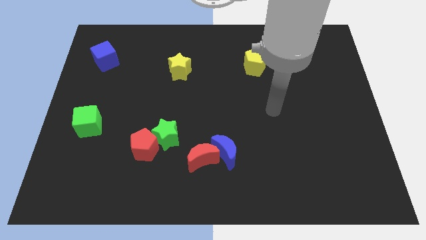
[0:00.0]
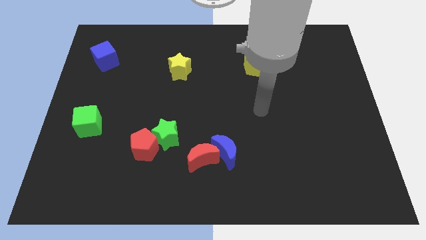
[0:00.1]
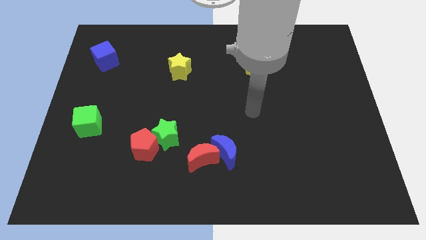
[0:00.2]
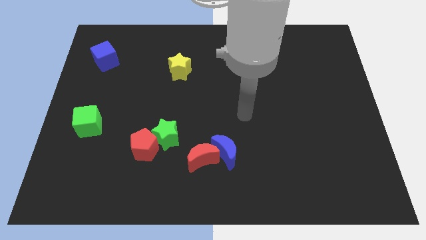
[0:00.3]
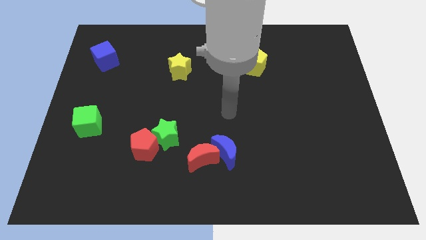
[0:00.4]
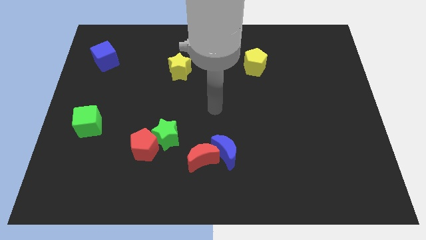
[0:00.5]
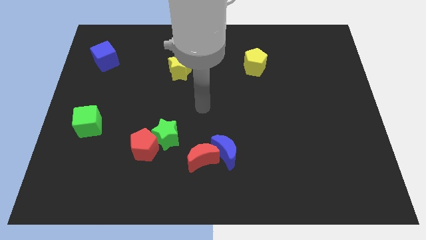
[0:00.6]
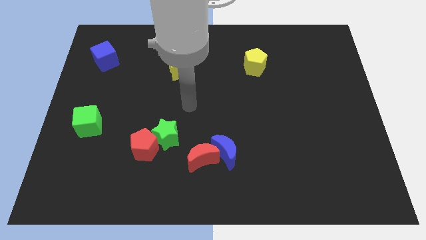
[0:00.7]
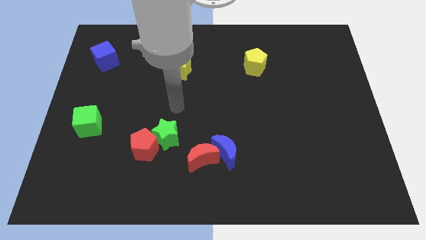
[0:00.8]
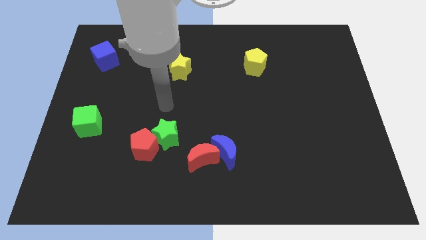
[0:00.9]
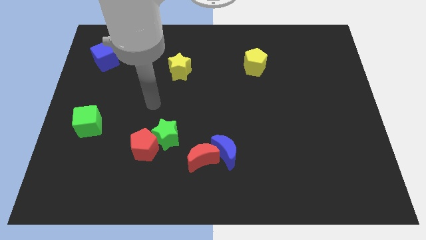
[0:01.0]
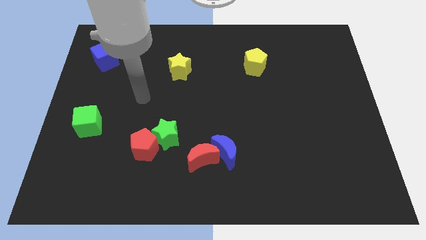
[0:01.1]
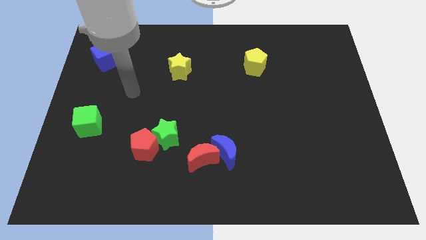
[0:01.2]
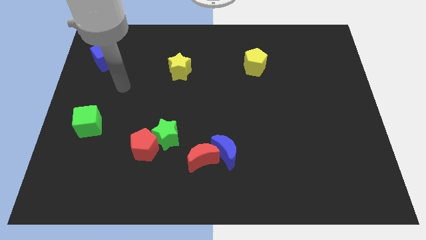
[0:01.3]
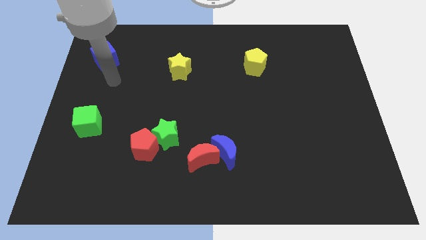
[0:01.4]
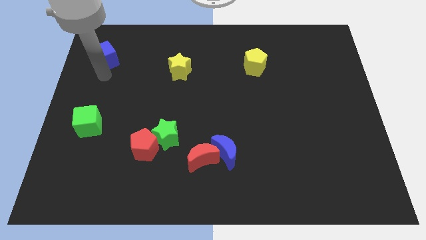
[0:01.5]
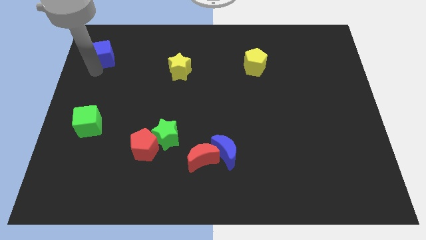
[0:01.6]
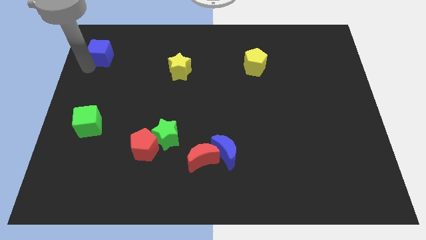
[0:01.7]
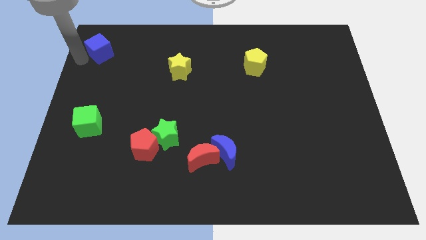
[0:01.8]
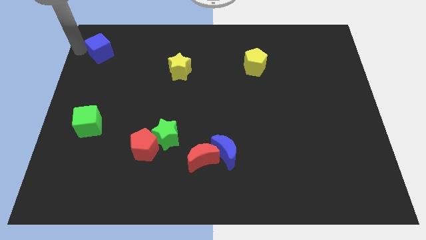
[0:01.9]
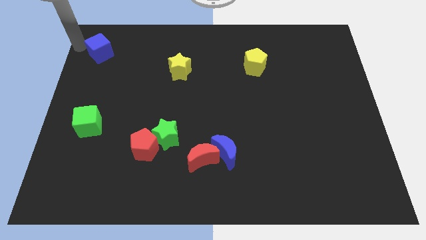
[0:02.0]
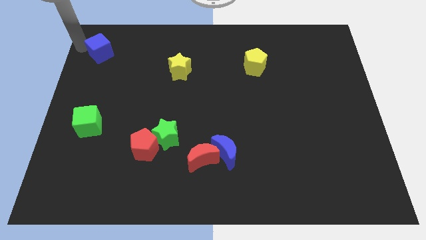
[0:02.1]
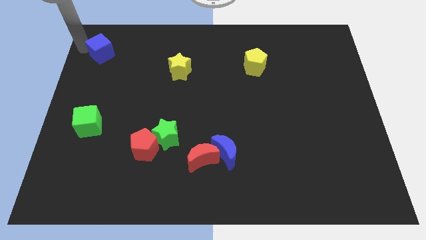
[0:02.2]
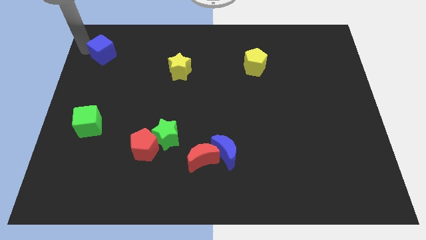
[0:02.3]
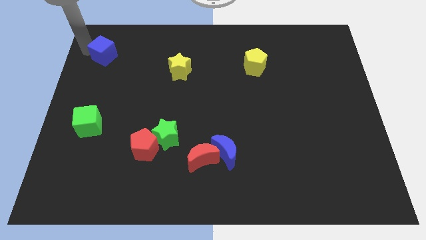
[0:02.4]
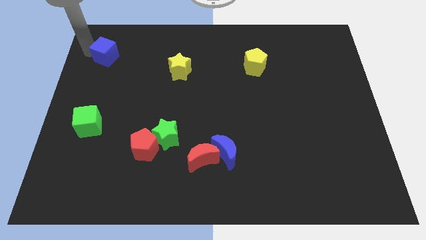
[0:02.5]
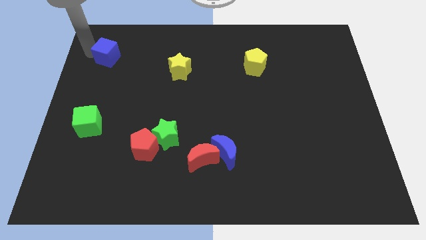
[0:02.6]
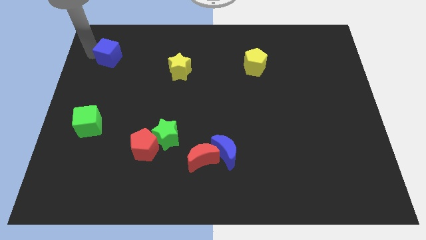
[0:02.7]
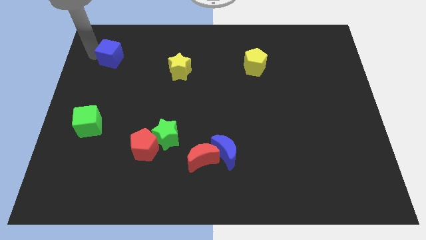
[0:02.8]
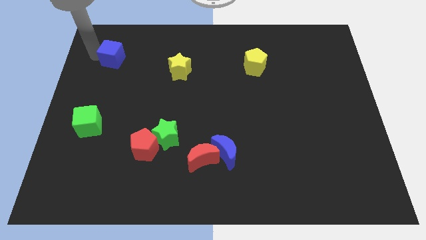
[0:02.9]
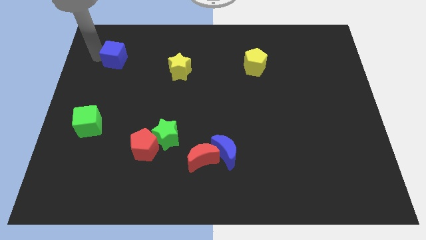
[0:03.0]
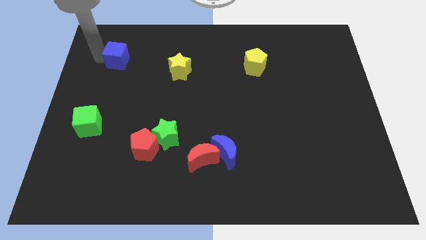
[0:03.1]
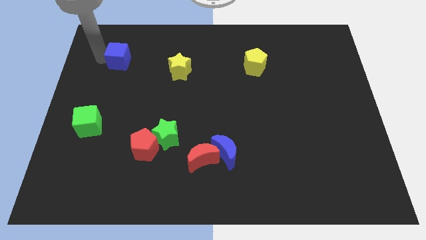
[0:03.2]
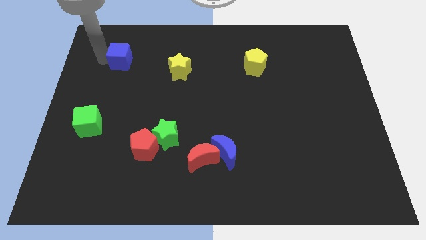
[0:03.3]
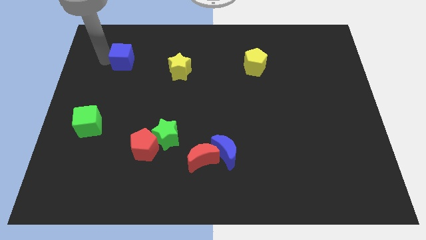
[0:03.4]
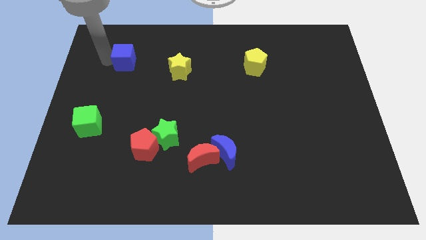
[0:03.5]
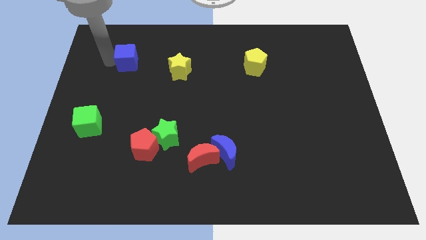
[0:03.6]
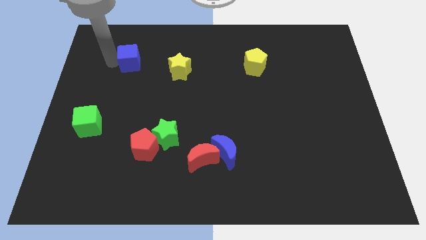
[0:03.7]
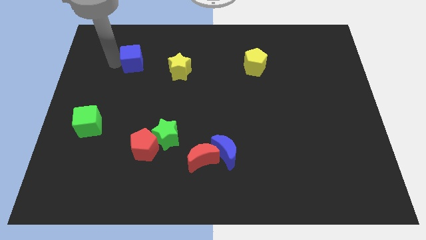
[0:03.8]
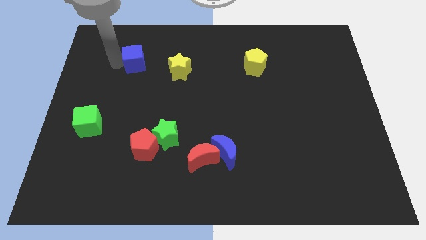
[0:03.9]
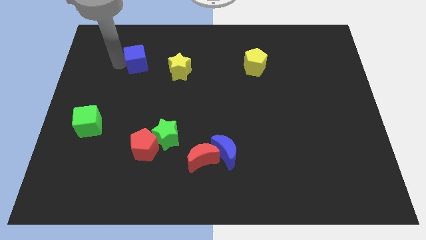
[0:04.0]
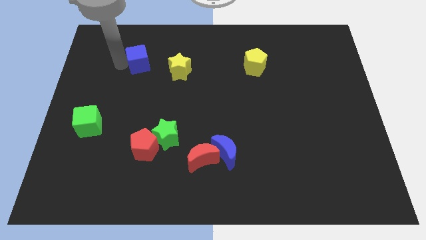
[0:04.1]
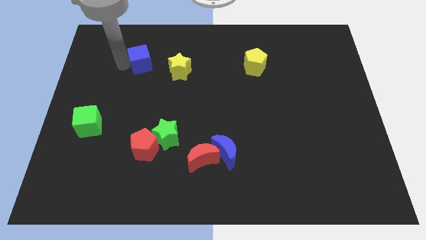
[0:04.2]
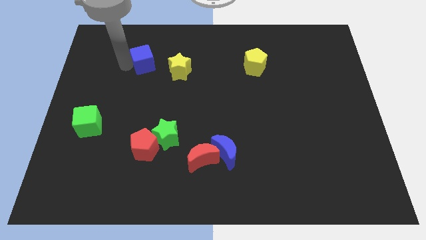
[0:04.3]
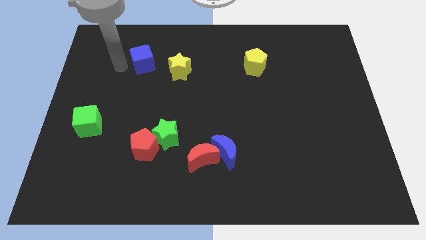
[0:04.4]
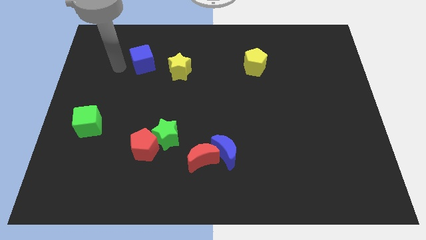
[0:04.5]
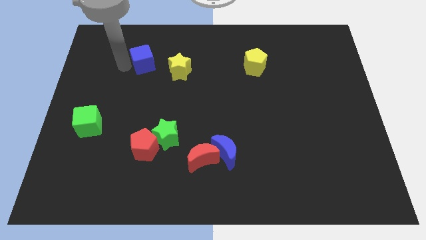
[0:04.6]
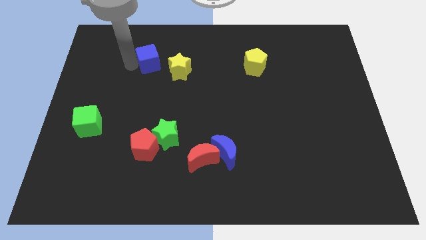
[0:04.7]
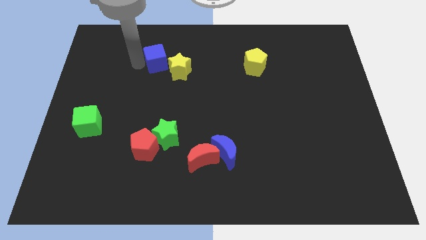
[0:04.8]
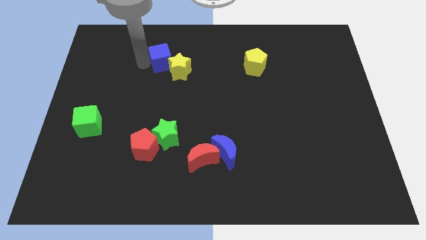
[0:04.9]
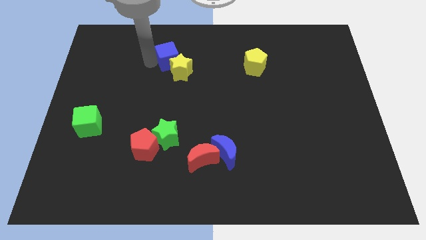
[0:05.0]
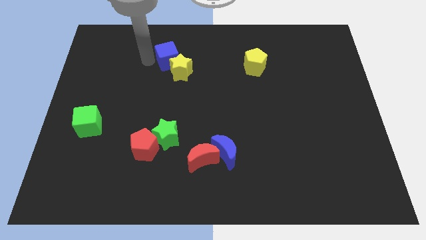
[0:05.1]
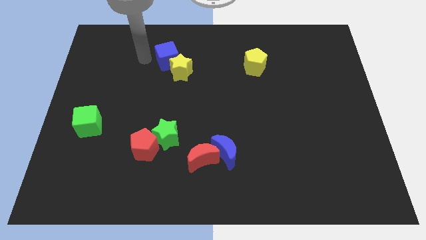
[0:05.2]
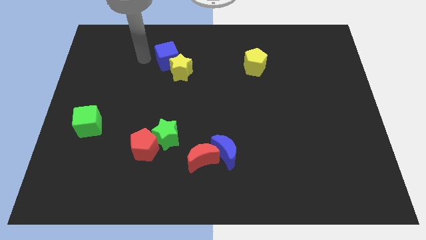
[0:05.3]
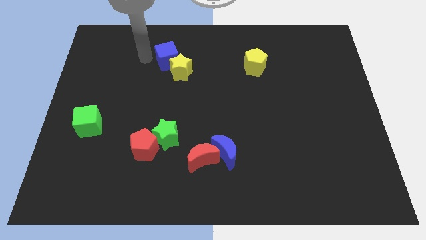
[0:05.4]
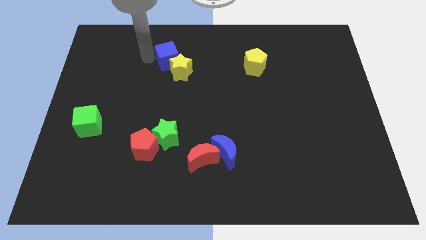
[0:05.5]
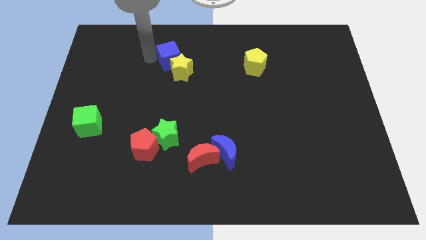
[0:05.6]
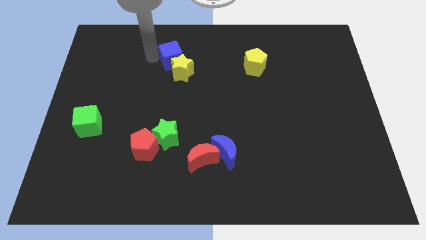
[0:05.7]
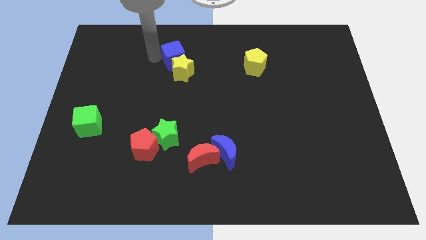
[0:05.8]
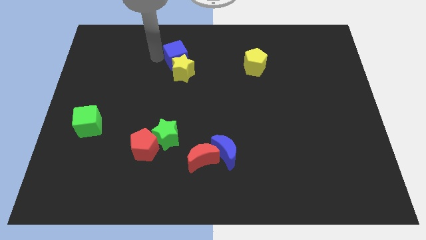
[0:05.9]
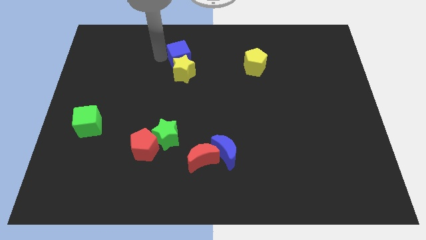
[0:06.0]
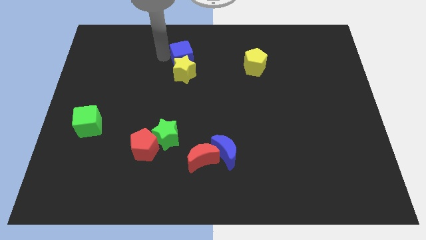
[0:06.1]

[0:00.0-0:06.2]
move the blue cube to the right

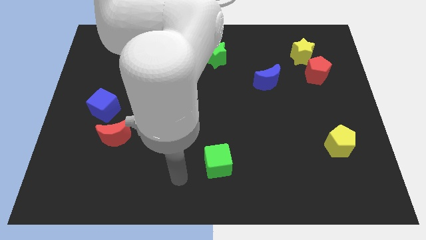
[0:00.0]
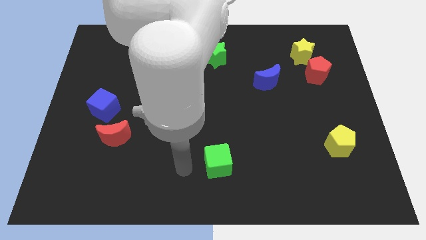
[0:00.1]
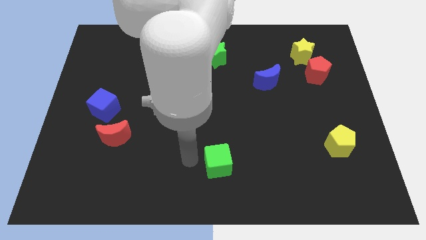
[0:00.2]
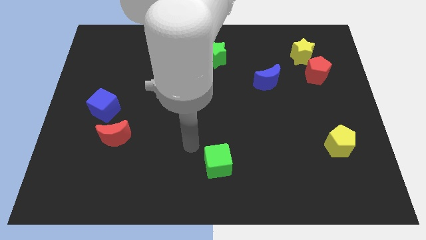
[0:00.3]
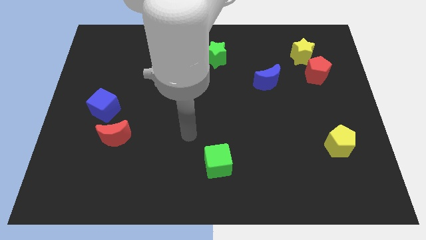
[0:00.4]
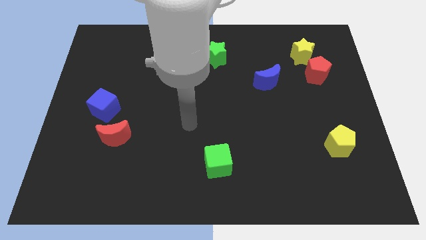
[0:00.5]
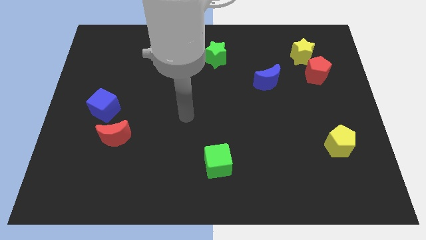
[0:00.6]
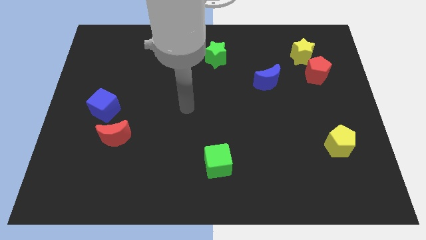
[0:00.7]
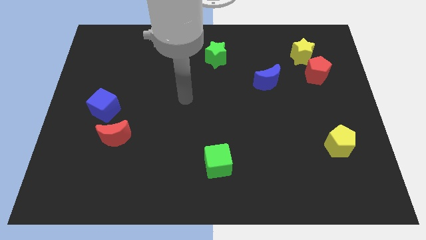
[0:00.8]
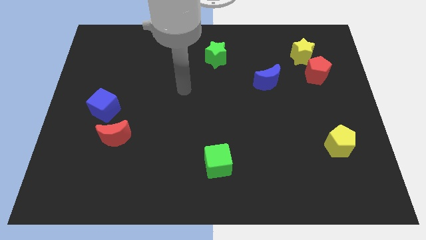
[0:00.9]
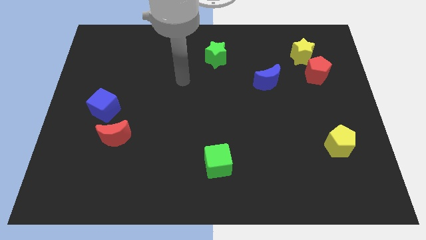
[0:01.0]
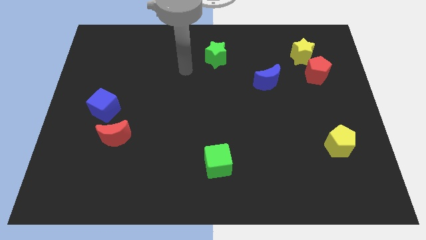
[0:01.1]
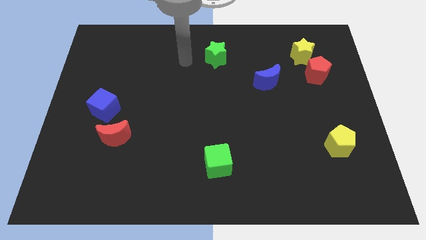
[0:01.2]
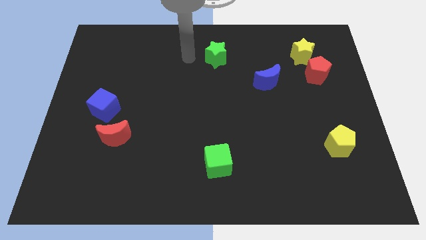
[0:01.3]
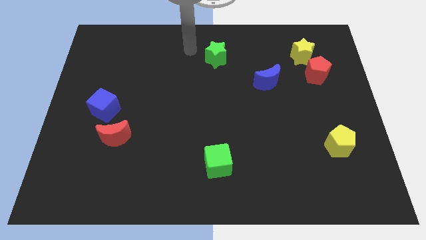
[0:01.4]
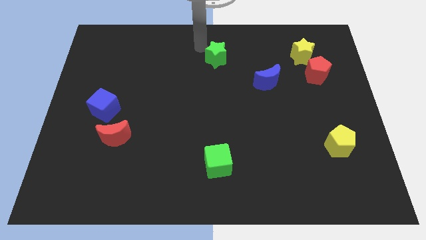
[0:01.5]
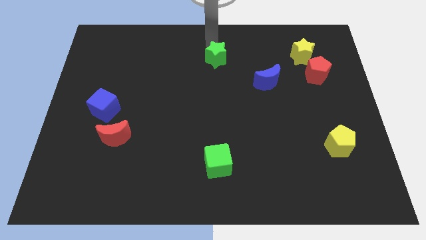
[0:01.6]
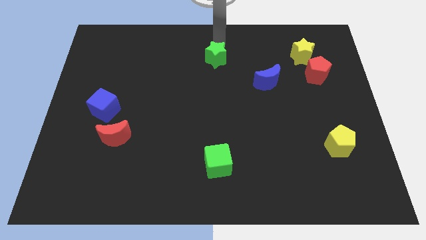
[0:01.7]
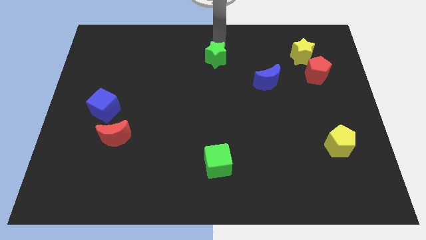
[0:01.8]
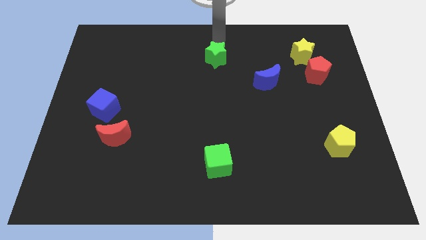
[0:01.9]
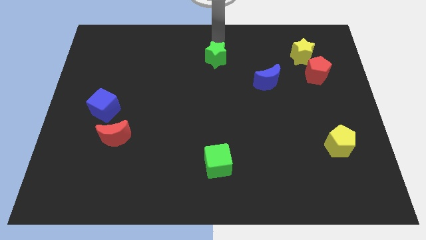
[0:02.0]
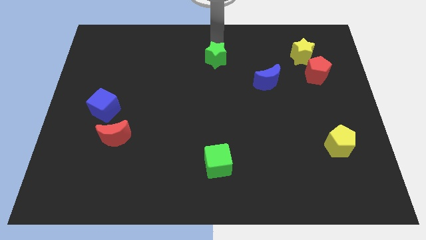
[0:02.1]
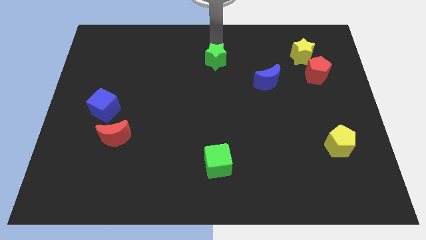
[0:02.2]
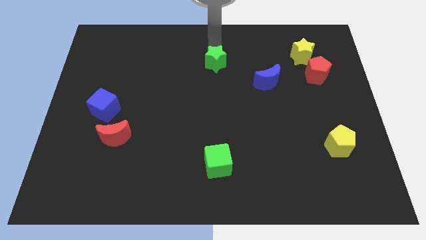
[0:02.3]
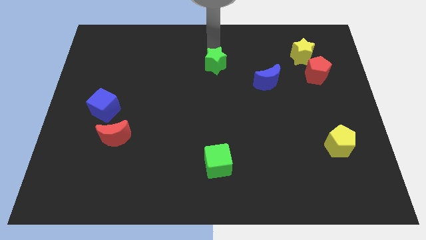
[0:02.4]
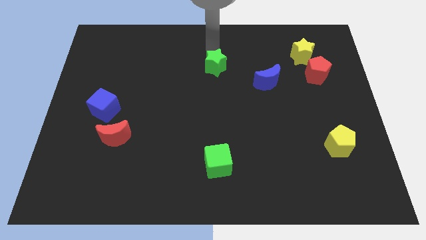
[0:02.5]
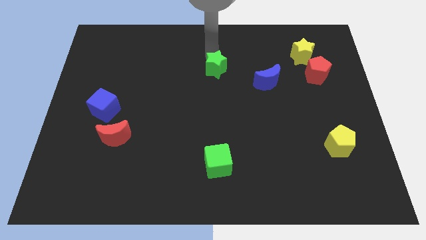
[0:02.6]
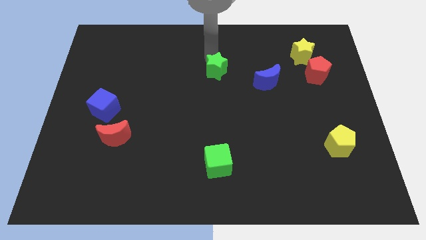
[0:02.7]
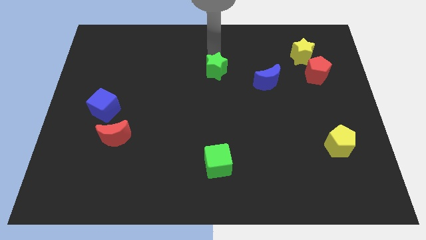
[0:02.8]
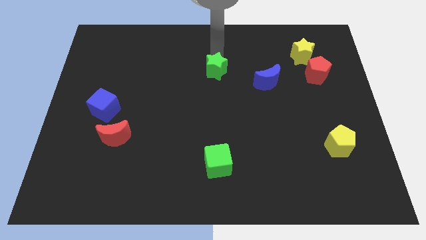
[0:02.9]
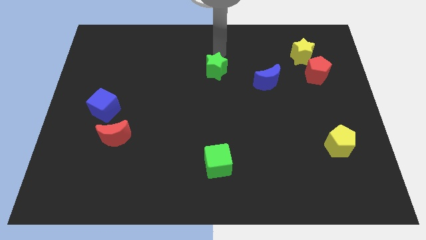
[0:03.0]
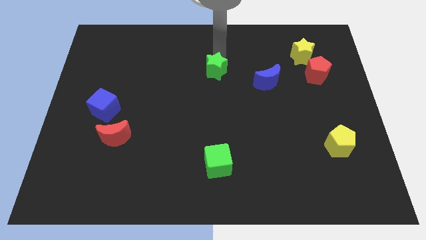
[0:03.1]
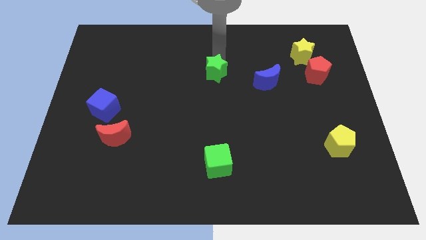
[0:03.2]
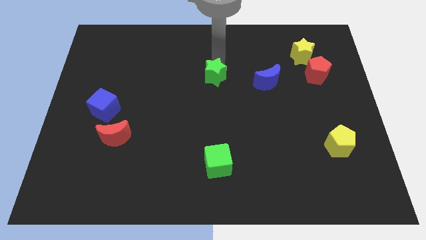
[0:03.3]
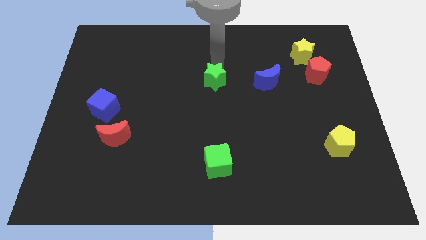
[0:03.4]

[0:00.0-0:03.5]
push the green star a little bit downwards
